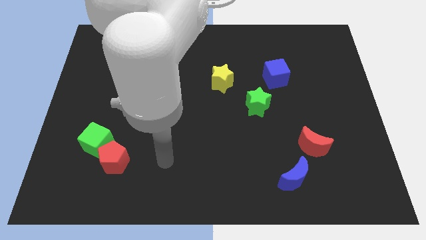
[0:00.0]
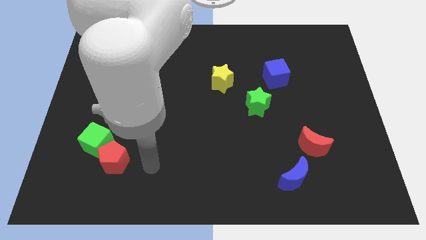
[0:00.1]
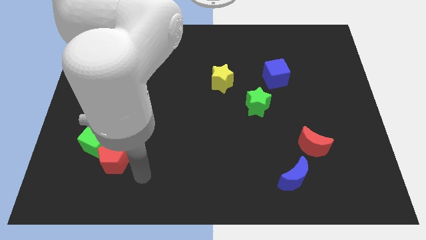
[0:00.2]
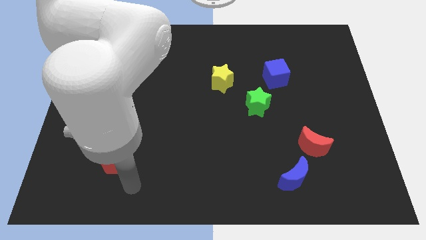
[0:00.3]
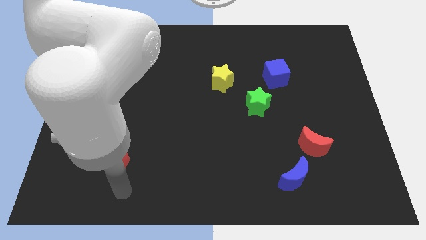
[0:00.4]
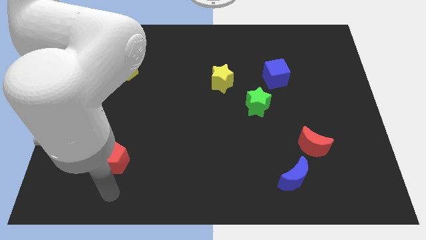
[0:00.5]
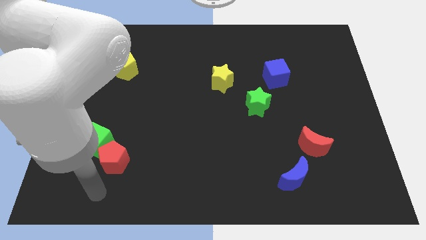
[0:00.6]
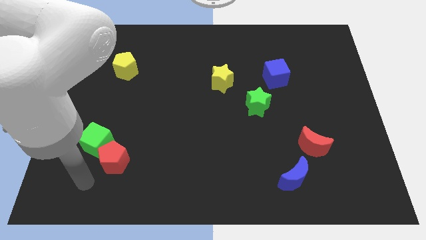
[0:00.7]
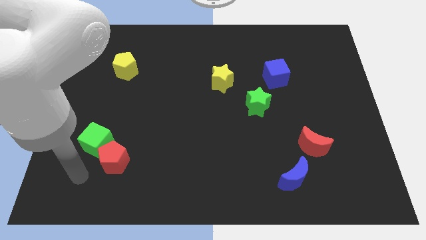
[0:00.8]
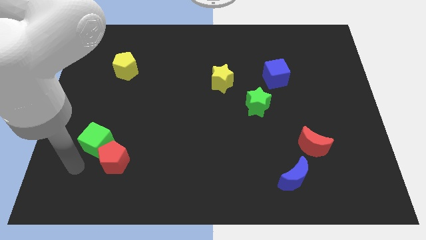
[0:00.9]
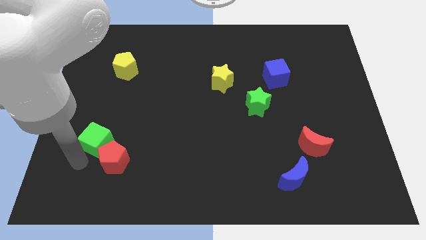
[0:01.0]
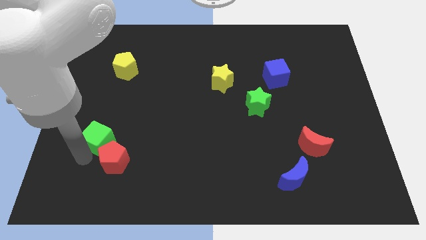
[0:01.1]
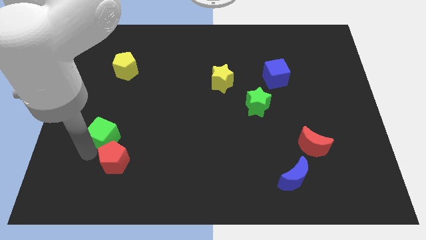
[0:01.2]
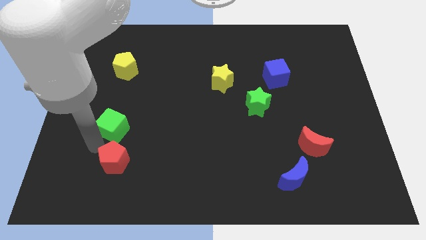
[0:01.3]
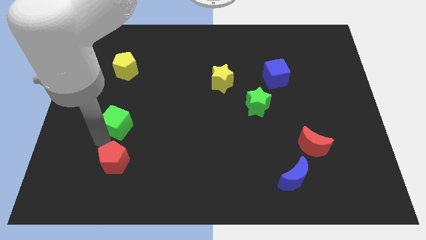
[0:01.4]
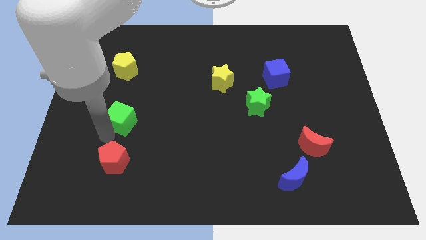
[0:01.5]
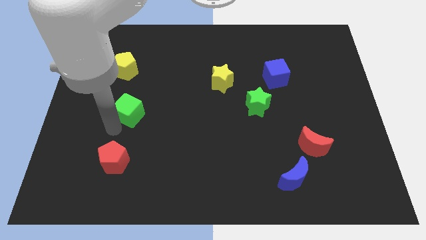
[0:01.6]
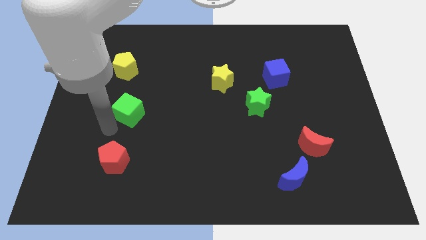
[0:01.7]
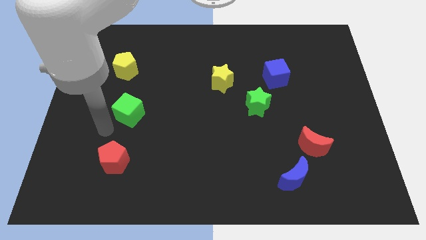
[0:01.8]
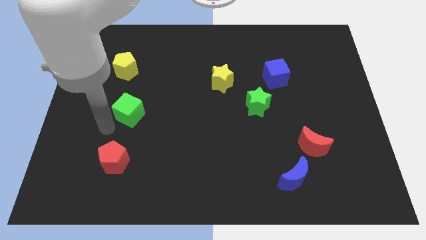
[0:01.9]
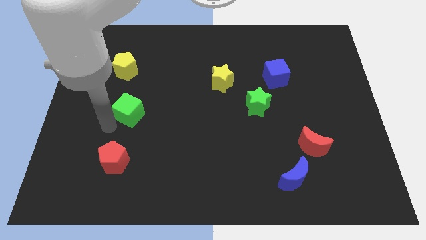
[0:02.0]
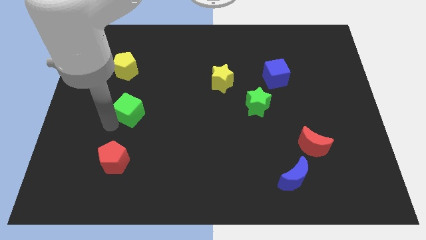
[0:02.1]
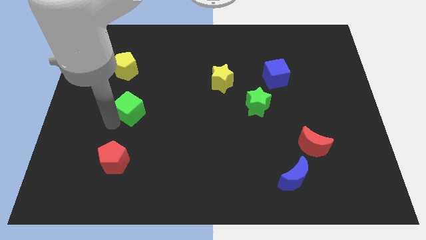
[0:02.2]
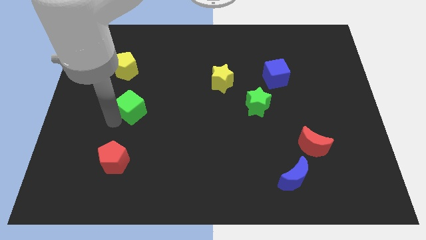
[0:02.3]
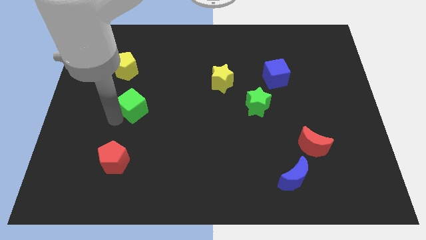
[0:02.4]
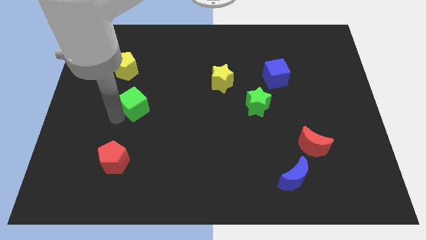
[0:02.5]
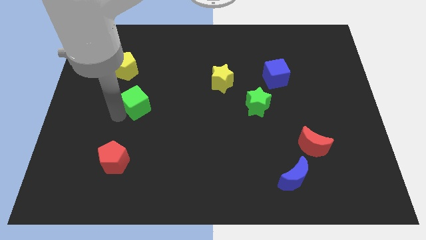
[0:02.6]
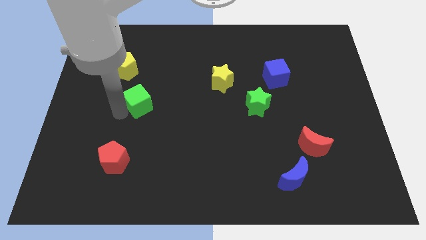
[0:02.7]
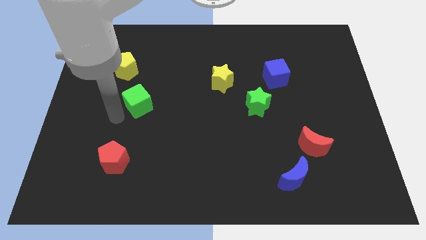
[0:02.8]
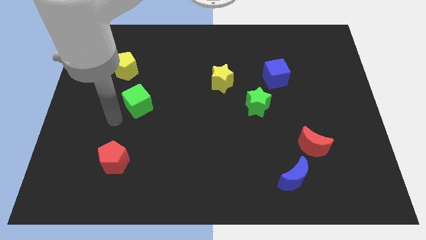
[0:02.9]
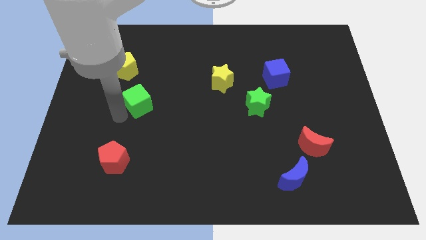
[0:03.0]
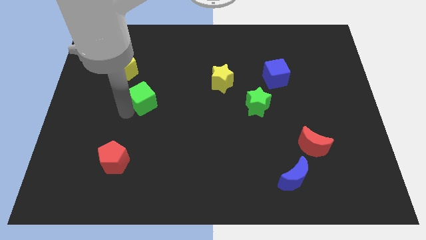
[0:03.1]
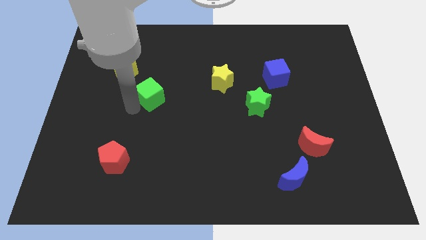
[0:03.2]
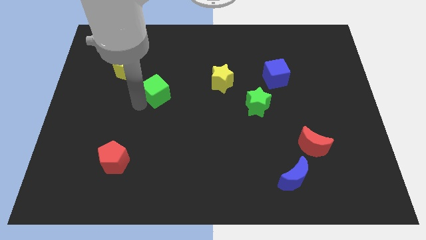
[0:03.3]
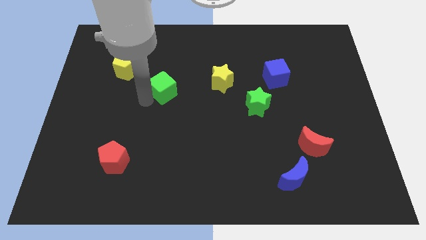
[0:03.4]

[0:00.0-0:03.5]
move the green cube up and then right

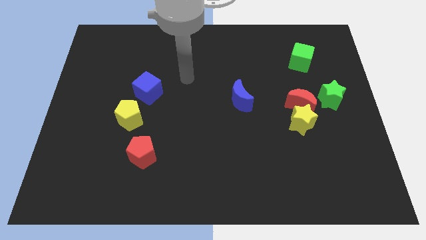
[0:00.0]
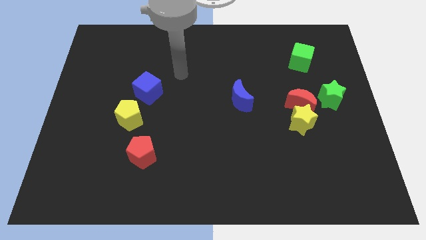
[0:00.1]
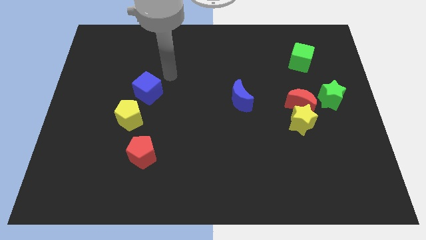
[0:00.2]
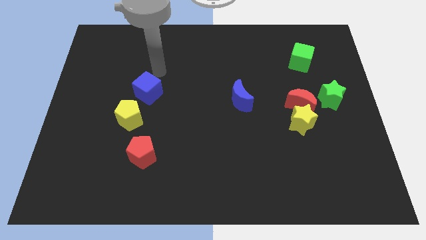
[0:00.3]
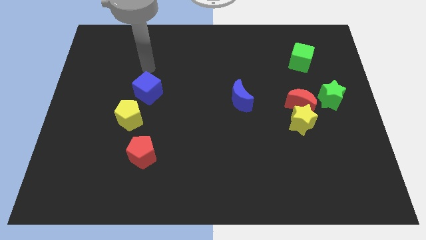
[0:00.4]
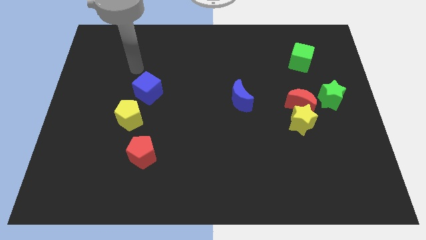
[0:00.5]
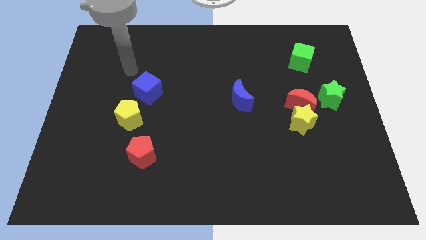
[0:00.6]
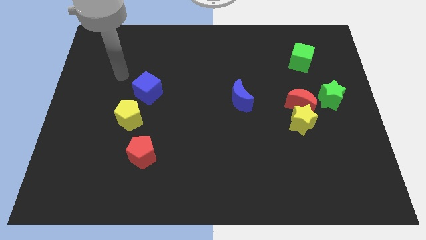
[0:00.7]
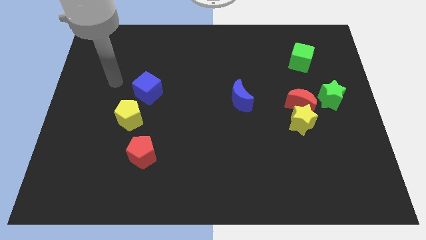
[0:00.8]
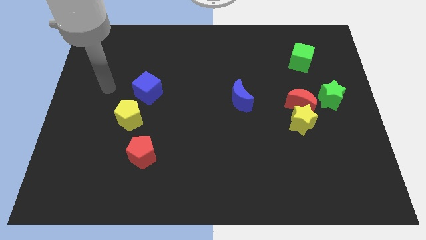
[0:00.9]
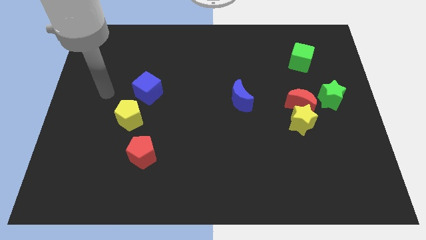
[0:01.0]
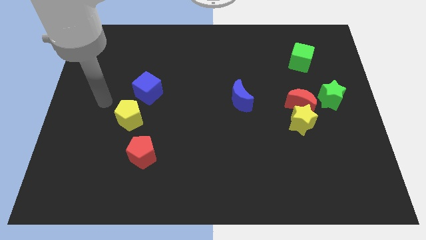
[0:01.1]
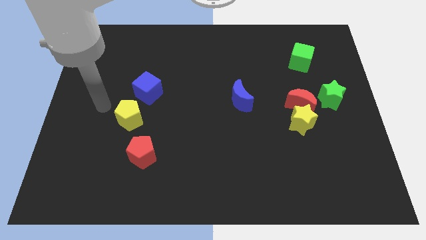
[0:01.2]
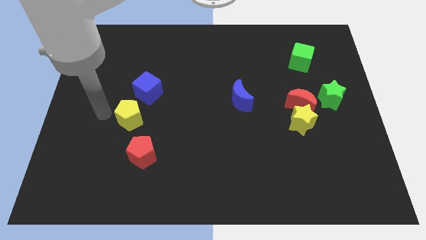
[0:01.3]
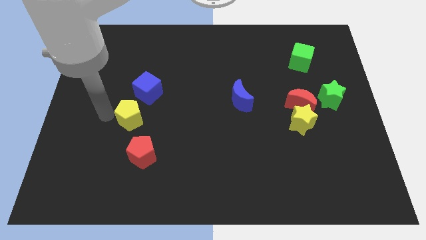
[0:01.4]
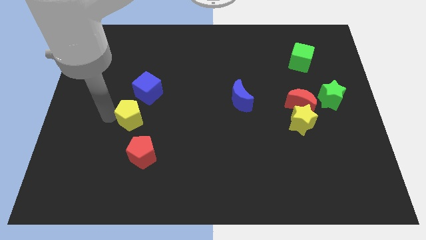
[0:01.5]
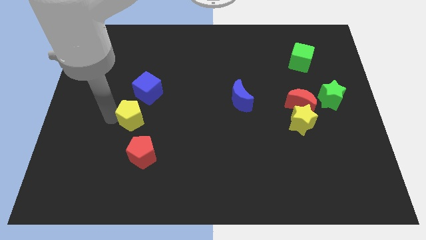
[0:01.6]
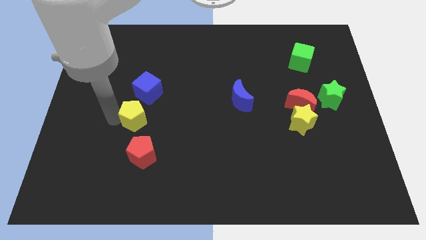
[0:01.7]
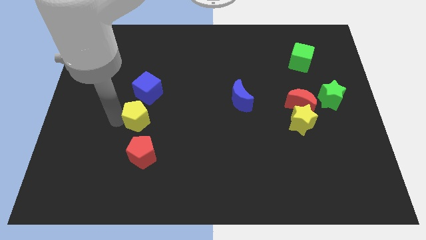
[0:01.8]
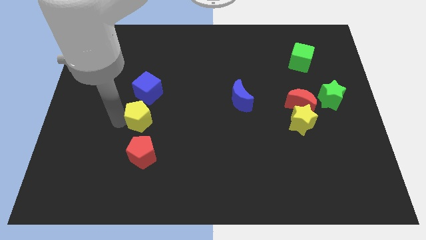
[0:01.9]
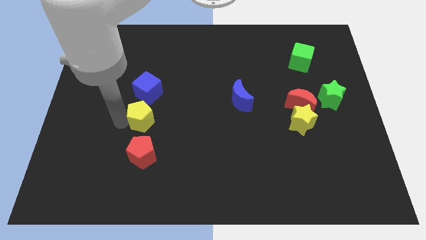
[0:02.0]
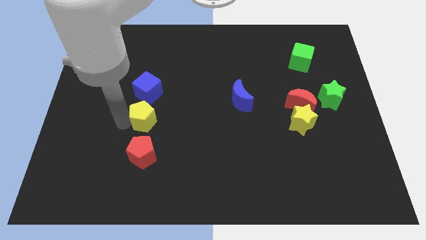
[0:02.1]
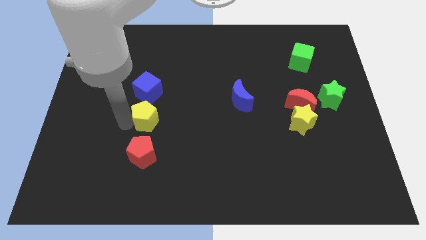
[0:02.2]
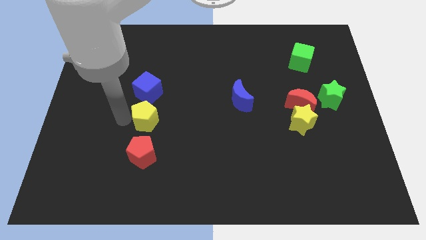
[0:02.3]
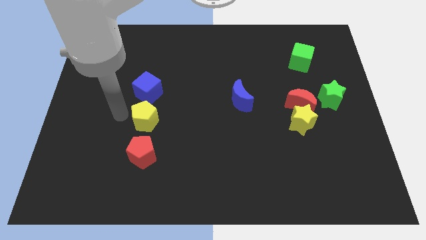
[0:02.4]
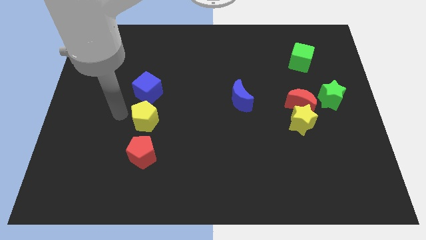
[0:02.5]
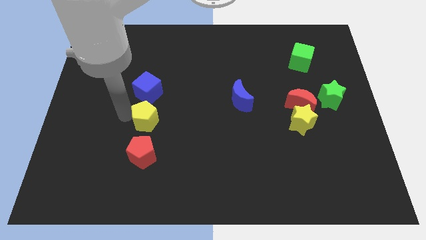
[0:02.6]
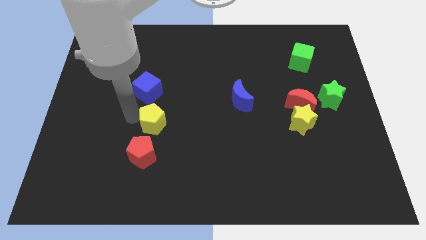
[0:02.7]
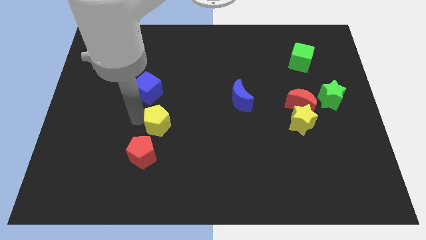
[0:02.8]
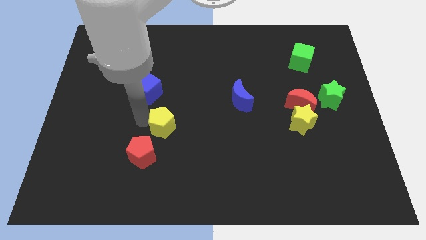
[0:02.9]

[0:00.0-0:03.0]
slightly push the yellow pentagon right

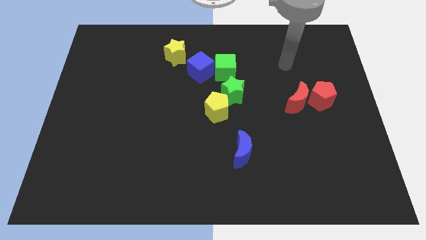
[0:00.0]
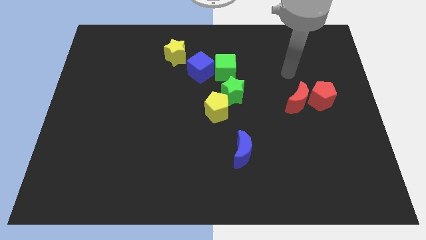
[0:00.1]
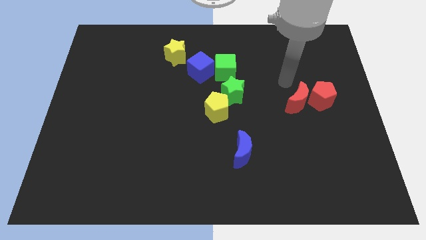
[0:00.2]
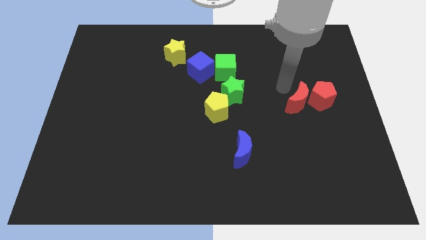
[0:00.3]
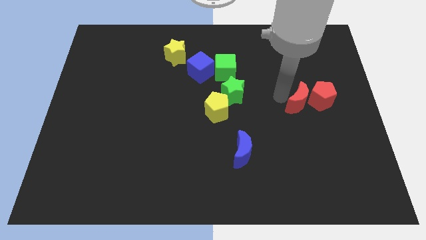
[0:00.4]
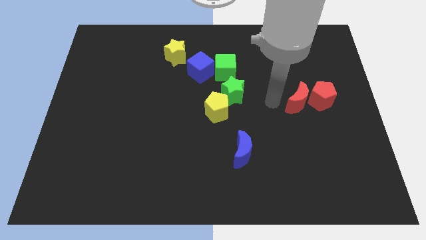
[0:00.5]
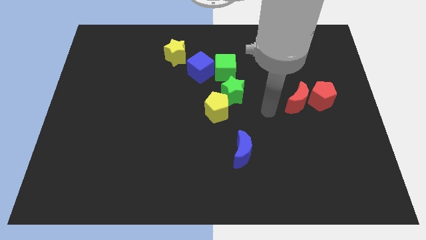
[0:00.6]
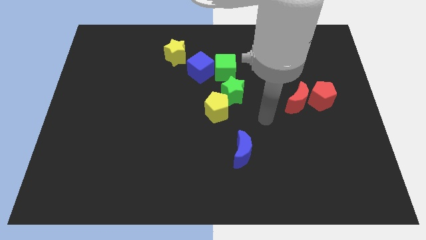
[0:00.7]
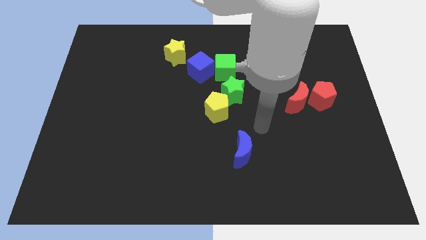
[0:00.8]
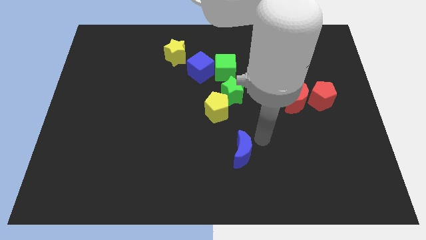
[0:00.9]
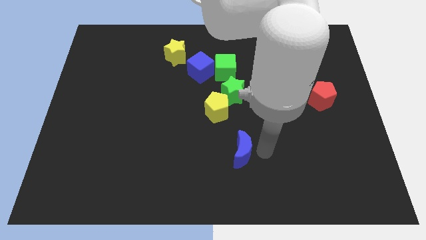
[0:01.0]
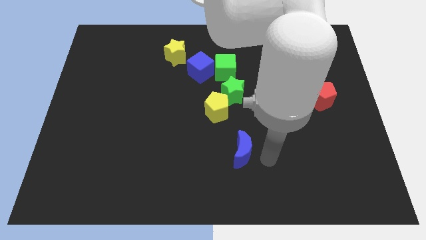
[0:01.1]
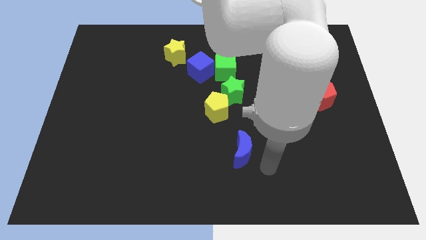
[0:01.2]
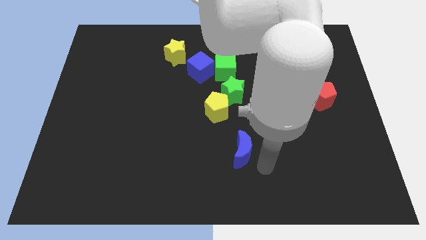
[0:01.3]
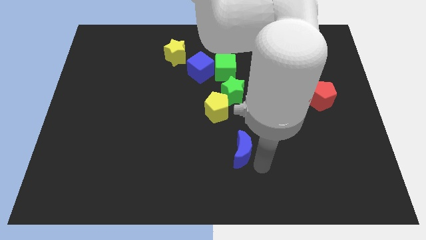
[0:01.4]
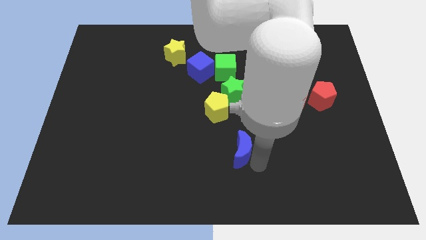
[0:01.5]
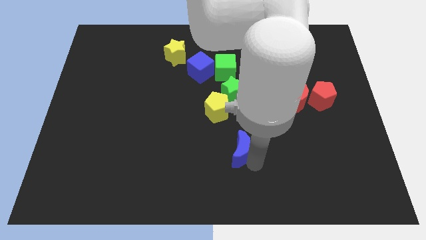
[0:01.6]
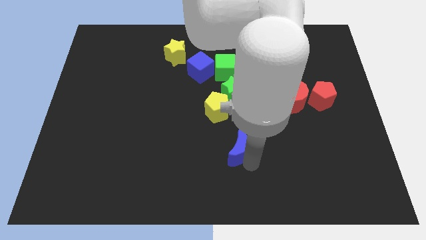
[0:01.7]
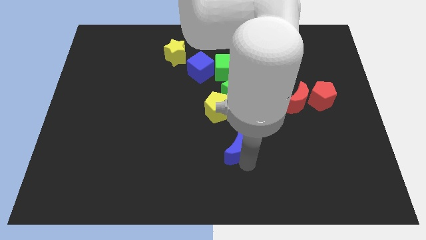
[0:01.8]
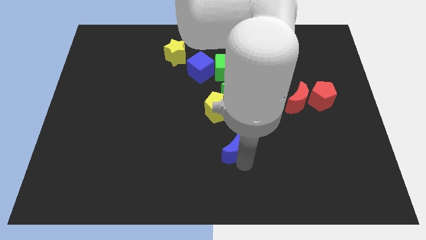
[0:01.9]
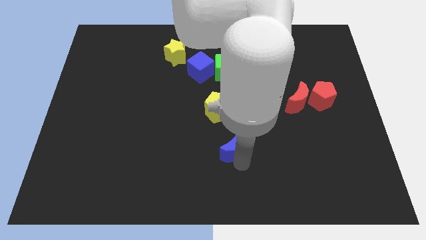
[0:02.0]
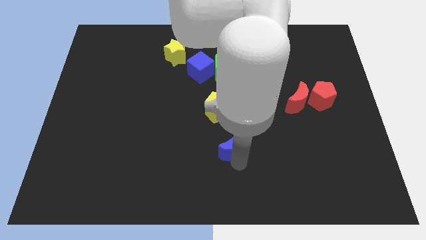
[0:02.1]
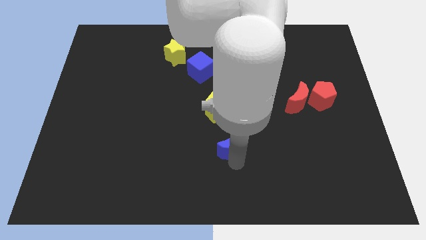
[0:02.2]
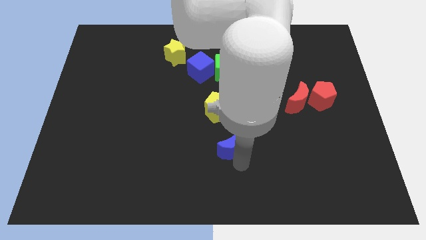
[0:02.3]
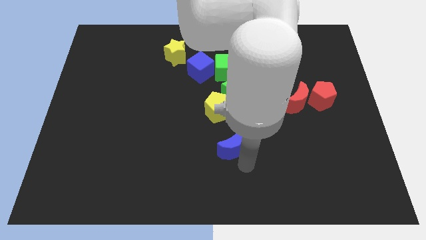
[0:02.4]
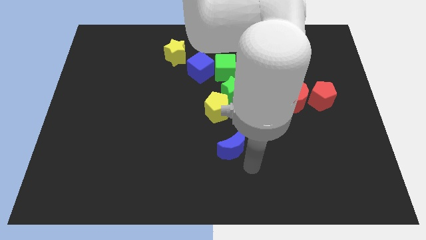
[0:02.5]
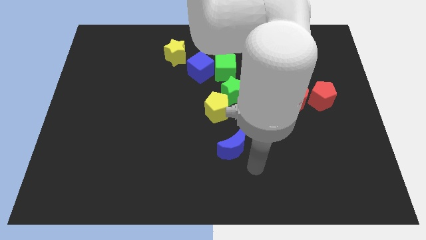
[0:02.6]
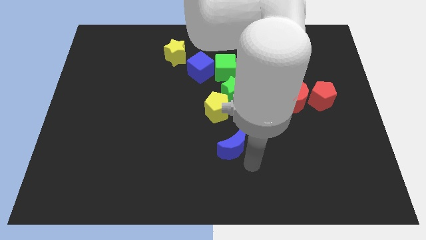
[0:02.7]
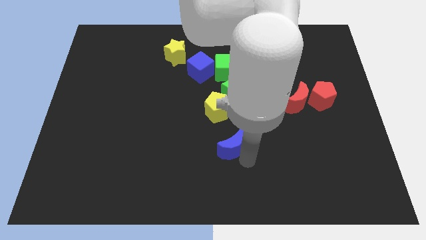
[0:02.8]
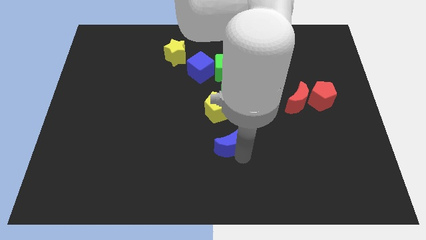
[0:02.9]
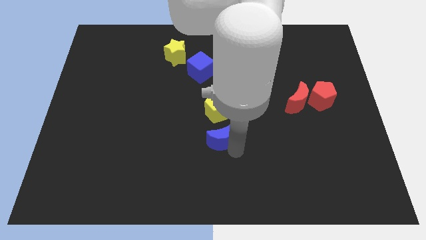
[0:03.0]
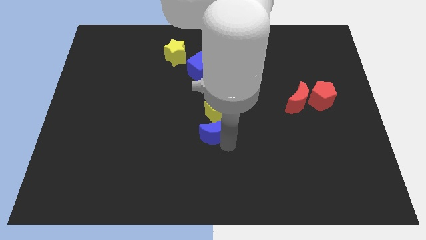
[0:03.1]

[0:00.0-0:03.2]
slide the blue moon a little diagonally upwards and to the left
